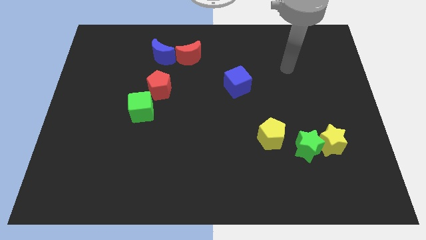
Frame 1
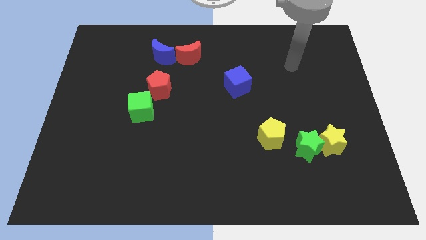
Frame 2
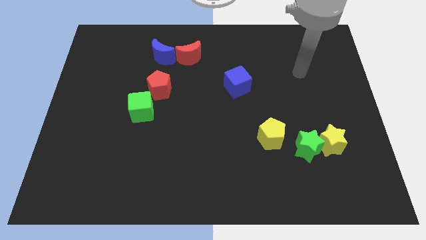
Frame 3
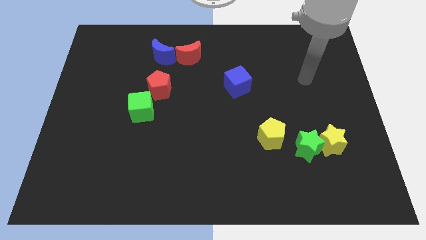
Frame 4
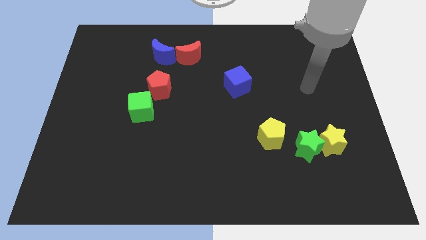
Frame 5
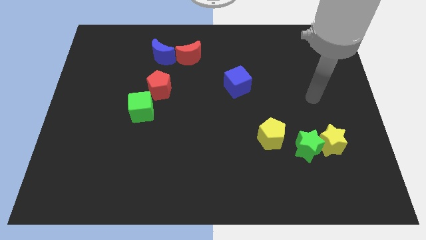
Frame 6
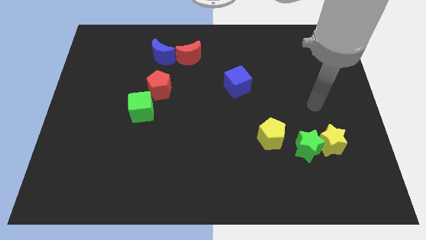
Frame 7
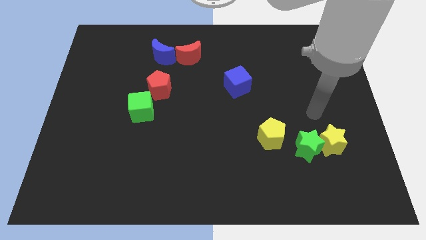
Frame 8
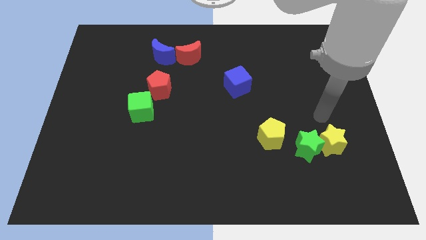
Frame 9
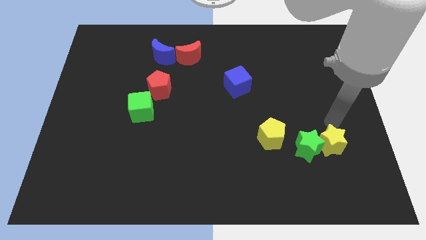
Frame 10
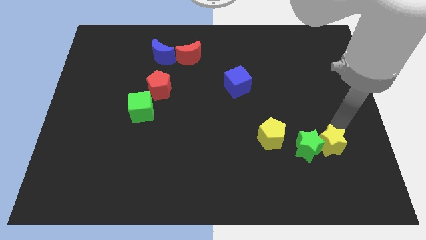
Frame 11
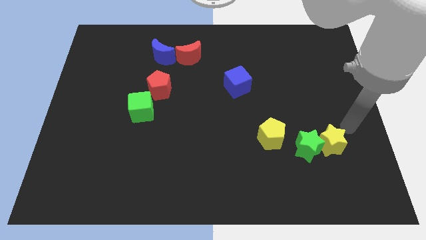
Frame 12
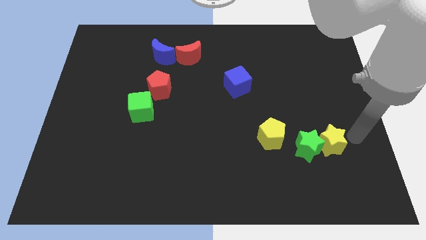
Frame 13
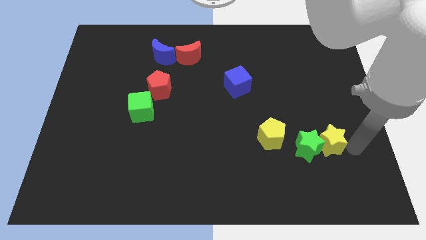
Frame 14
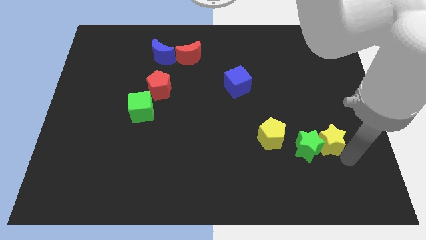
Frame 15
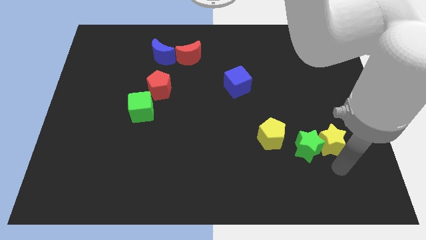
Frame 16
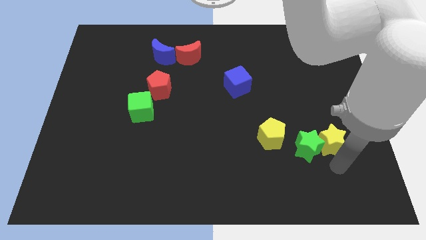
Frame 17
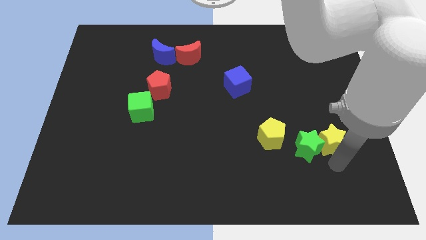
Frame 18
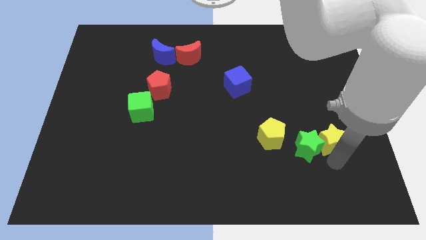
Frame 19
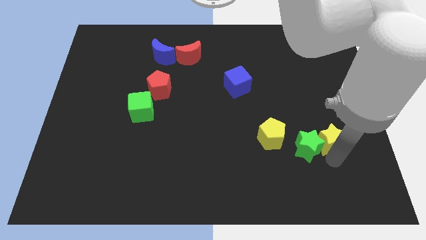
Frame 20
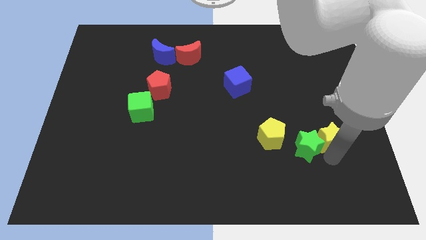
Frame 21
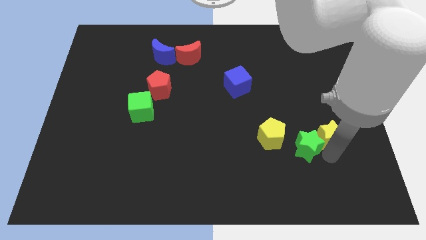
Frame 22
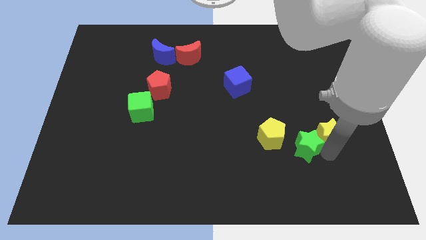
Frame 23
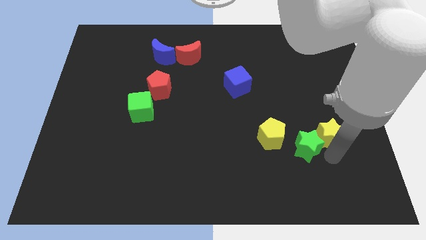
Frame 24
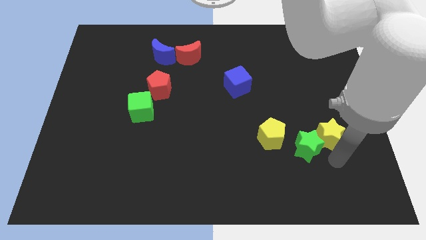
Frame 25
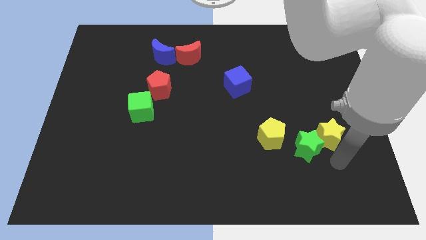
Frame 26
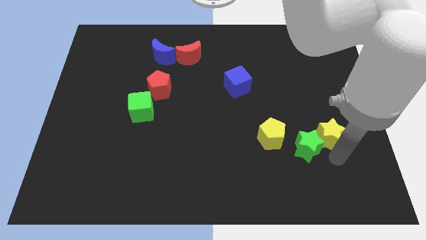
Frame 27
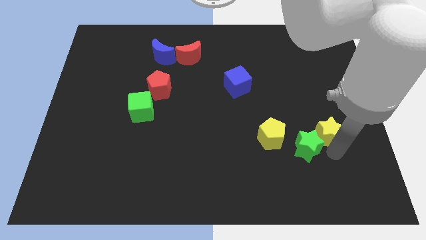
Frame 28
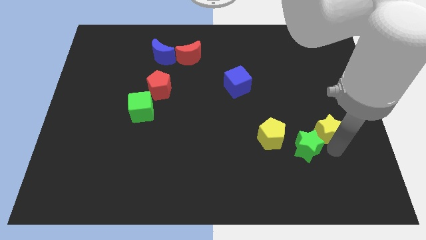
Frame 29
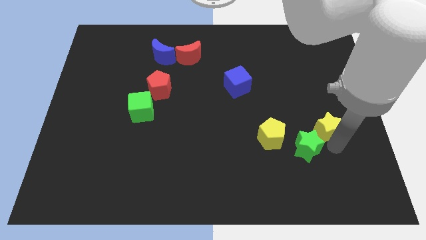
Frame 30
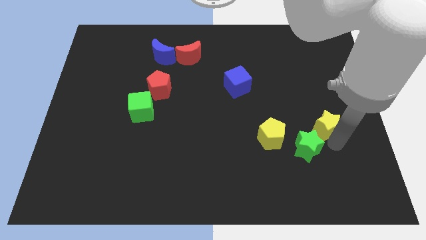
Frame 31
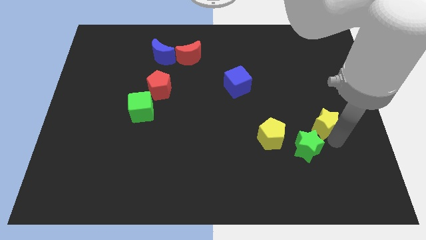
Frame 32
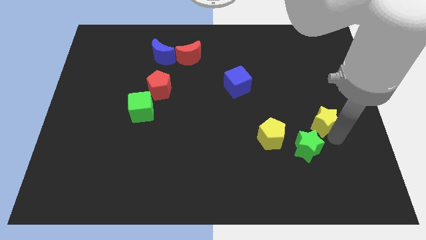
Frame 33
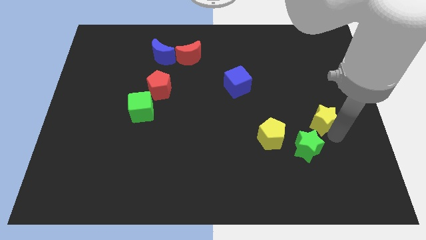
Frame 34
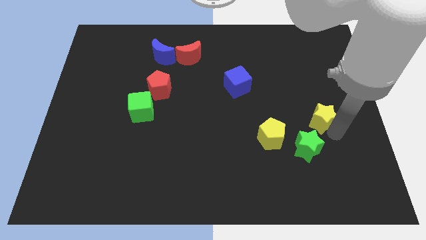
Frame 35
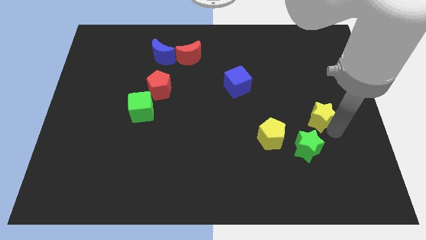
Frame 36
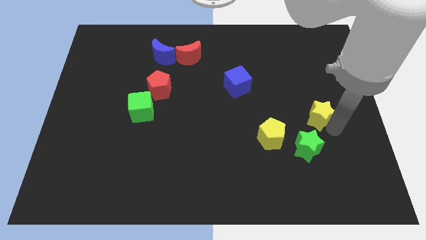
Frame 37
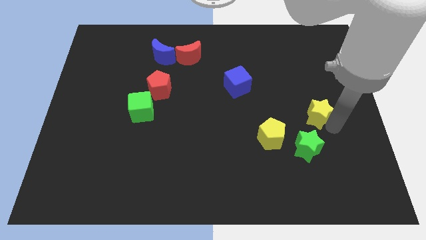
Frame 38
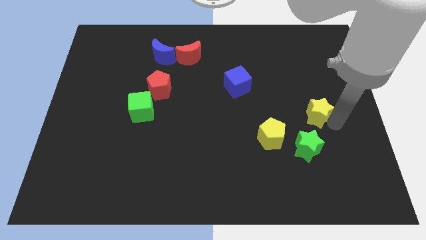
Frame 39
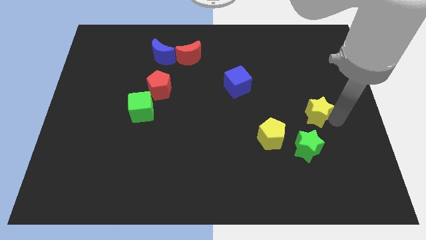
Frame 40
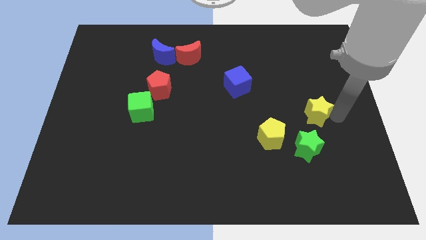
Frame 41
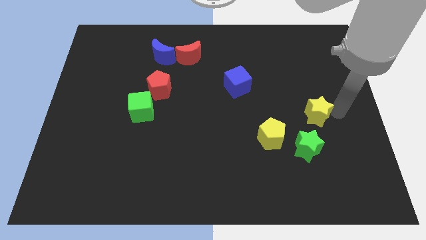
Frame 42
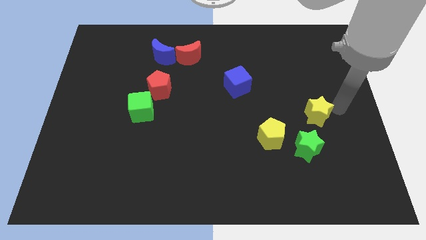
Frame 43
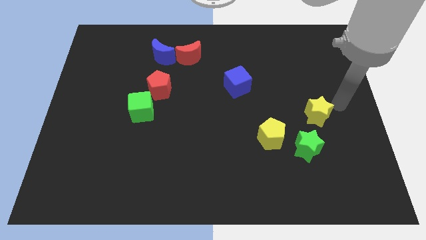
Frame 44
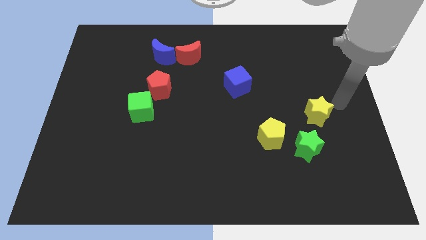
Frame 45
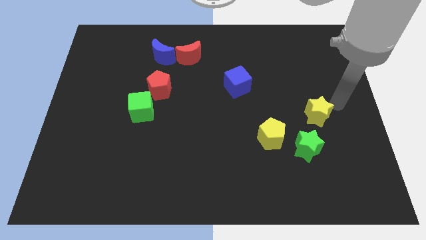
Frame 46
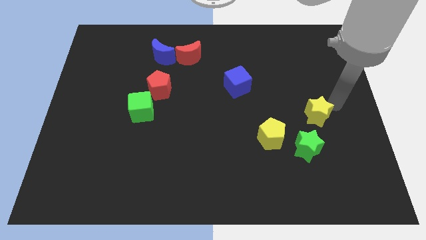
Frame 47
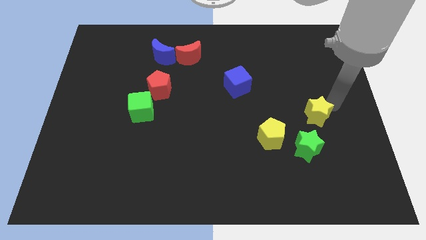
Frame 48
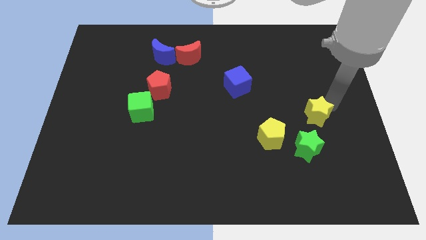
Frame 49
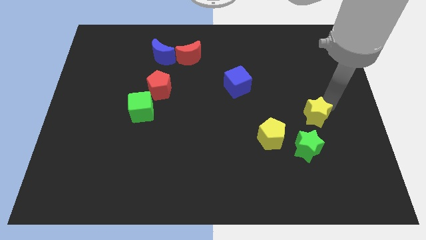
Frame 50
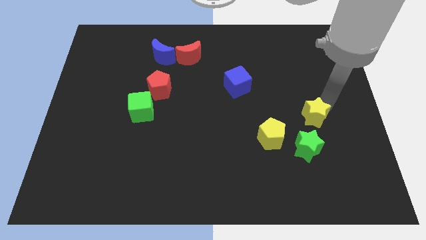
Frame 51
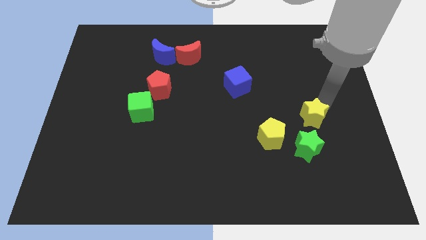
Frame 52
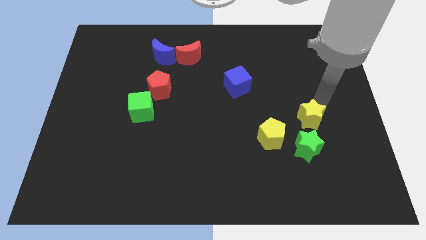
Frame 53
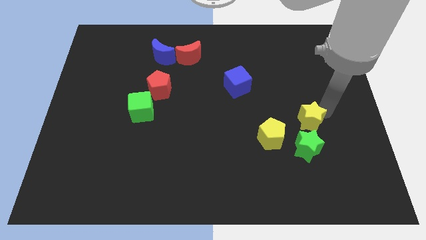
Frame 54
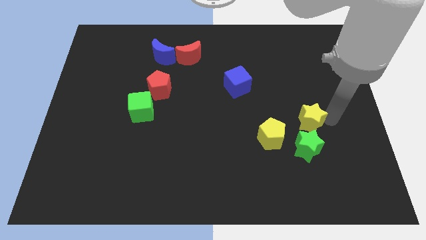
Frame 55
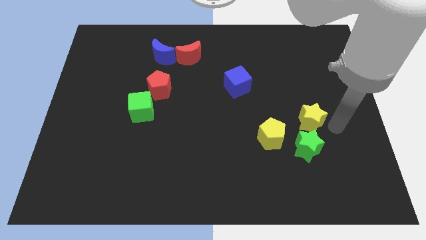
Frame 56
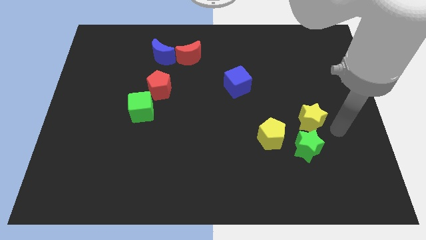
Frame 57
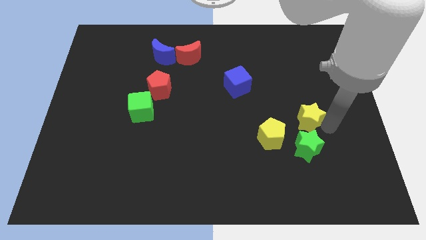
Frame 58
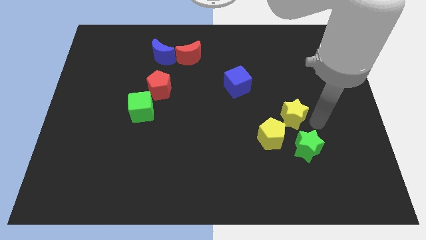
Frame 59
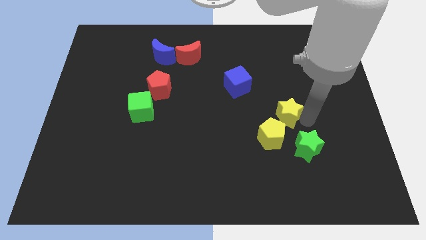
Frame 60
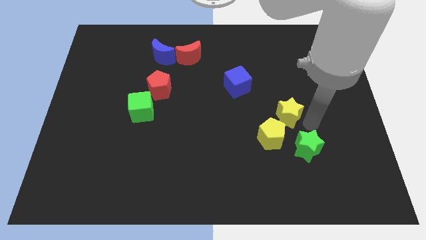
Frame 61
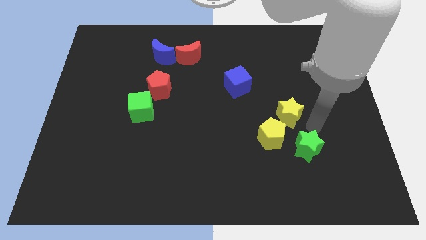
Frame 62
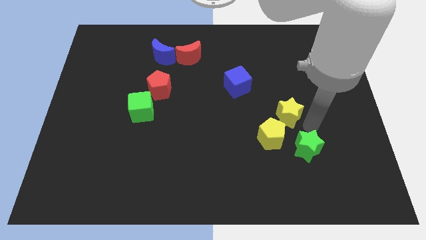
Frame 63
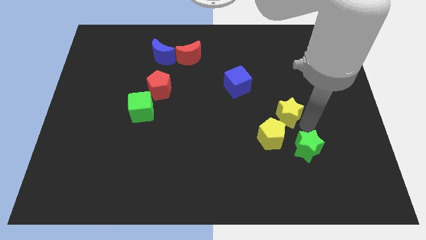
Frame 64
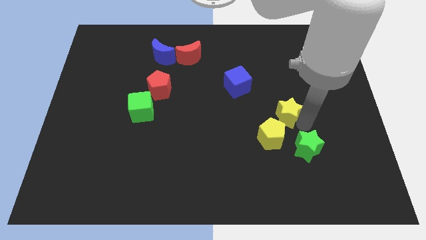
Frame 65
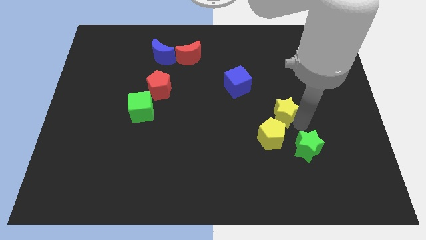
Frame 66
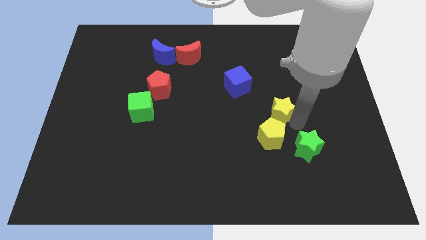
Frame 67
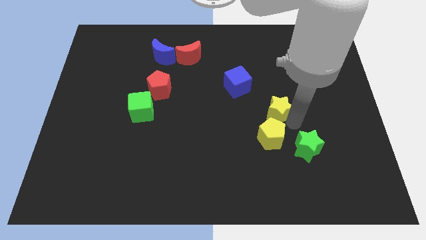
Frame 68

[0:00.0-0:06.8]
slide the yellow star to the bottom right of the blue cube

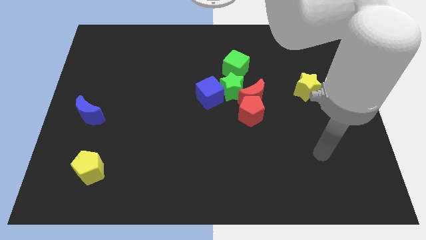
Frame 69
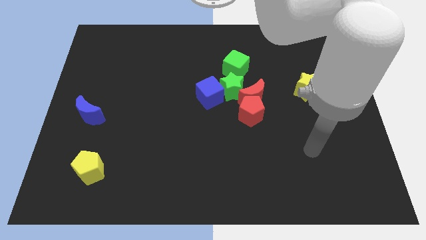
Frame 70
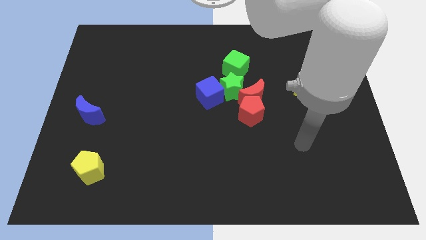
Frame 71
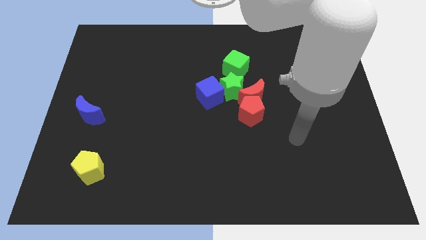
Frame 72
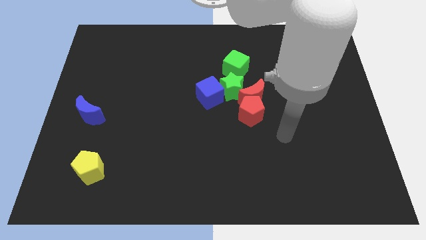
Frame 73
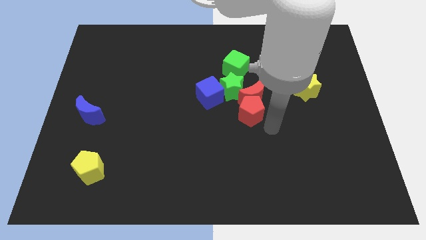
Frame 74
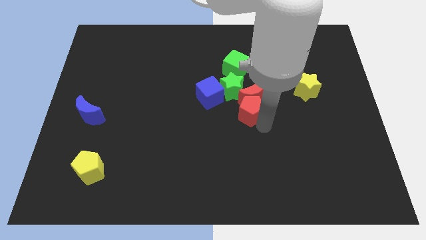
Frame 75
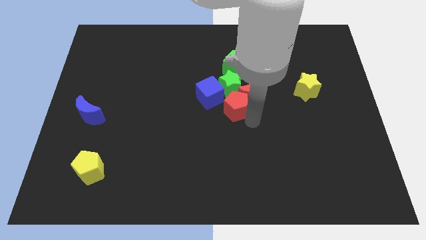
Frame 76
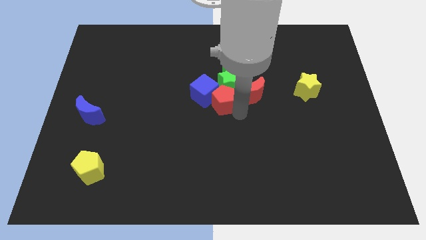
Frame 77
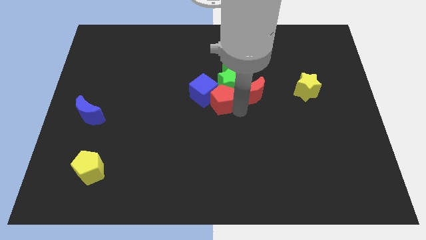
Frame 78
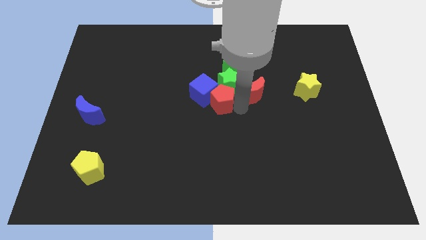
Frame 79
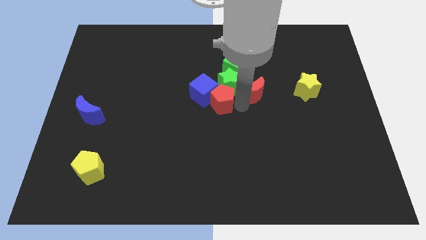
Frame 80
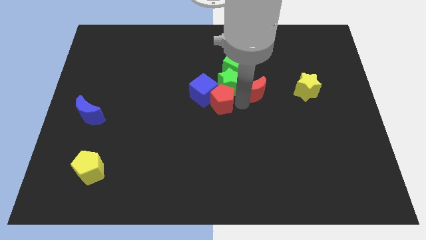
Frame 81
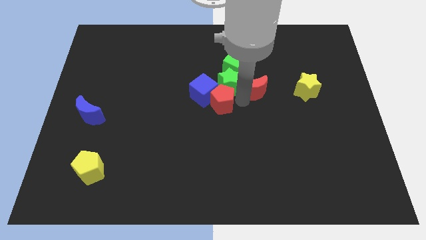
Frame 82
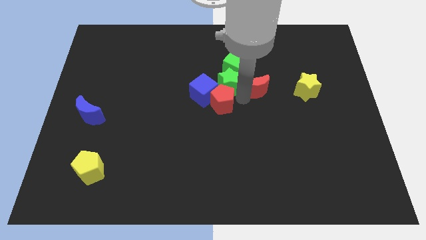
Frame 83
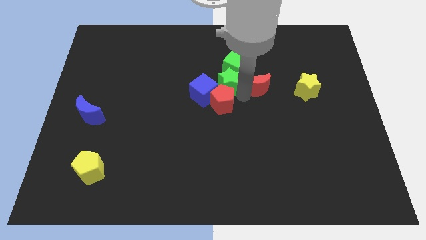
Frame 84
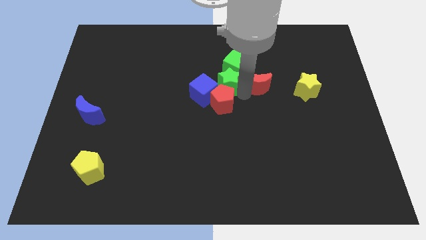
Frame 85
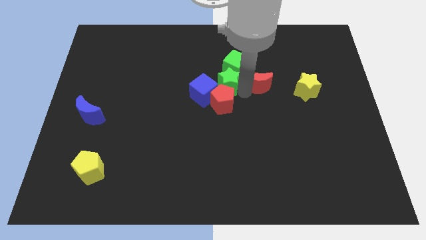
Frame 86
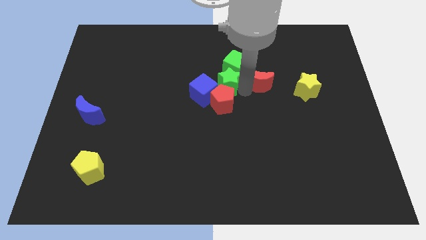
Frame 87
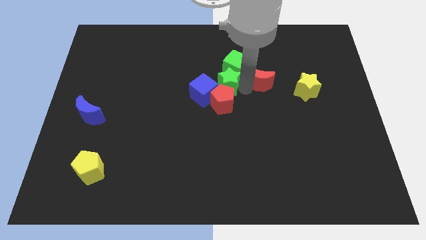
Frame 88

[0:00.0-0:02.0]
slide the red moon to the right of the green cube
